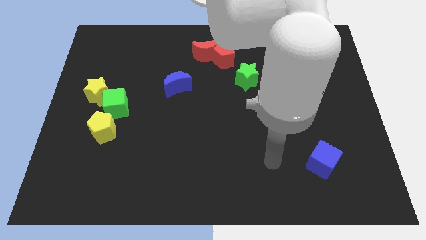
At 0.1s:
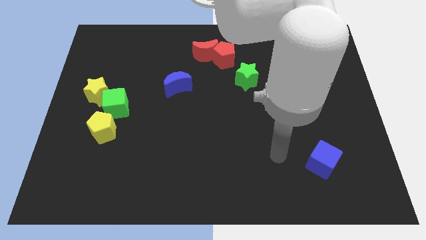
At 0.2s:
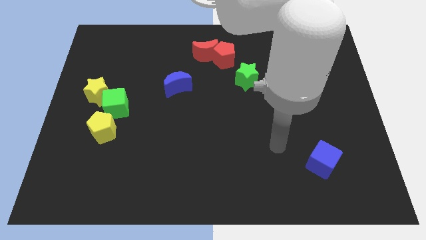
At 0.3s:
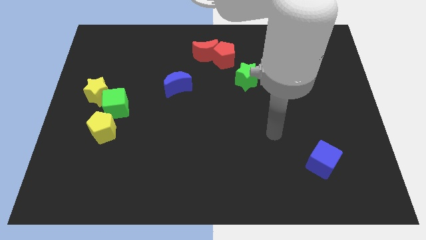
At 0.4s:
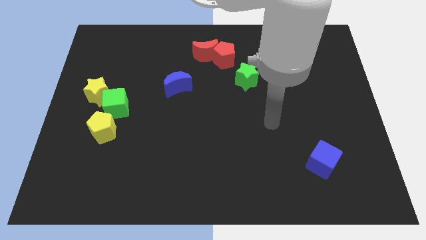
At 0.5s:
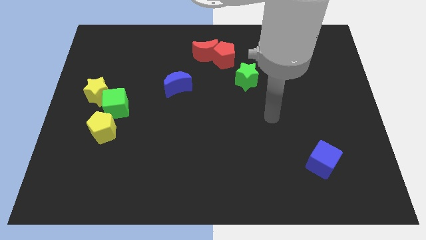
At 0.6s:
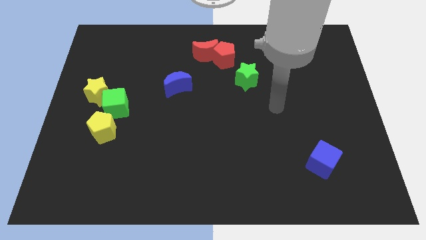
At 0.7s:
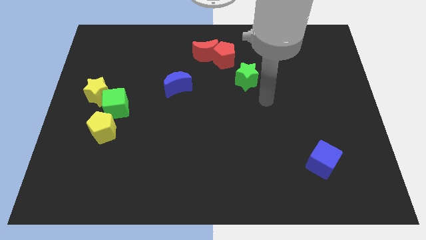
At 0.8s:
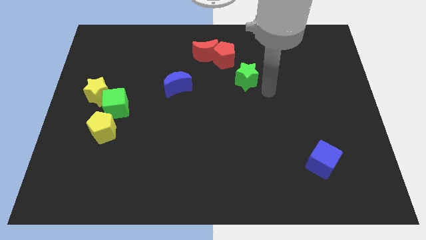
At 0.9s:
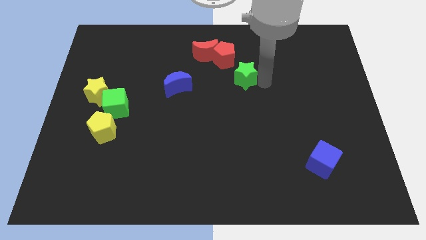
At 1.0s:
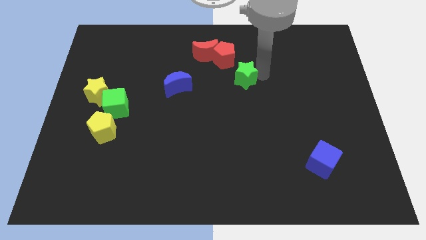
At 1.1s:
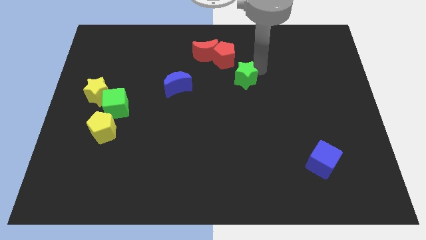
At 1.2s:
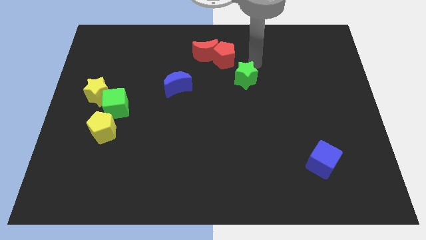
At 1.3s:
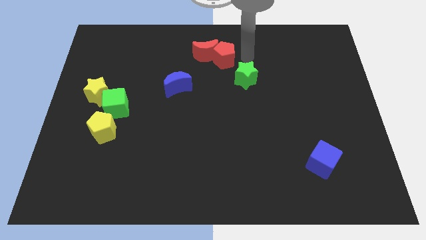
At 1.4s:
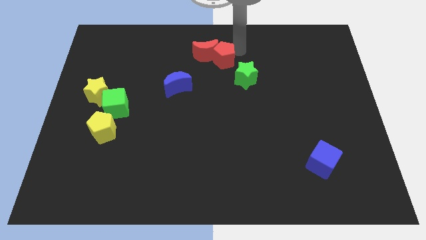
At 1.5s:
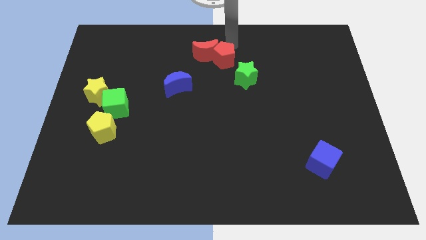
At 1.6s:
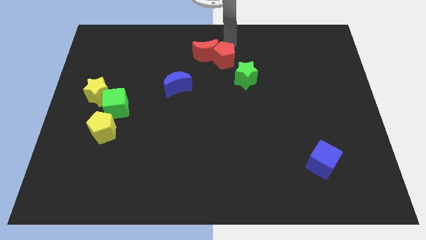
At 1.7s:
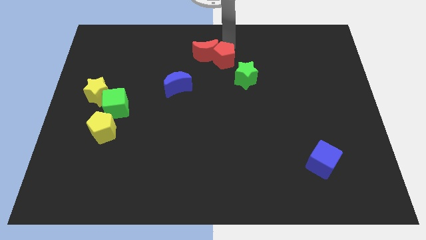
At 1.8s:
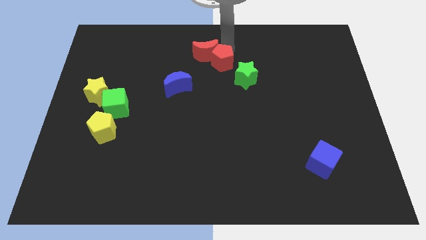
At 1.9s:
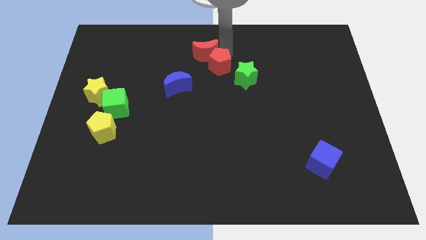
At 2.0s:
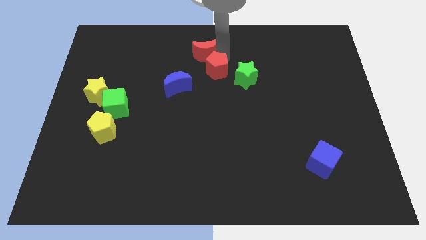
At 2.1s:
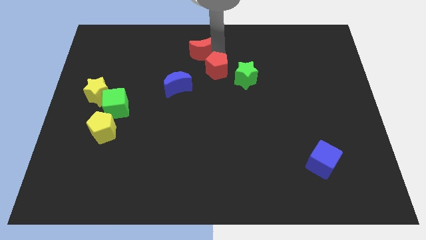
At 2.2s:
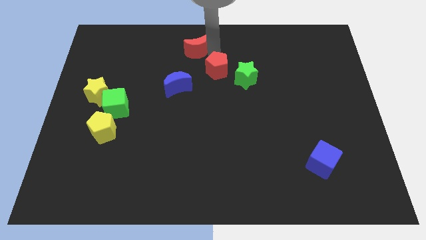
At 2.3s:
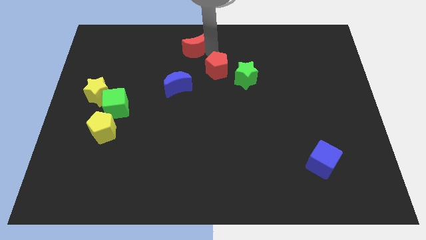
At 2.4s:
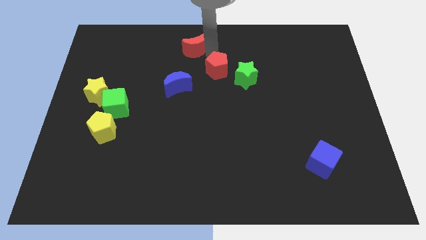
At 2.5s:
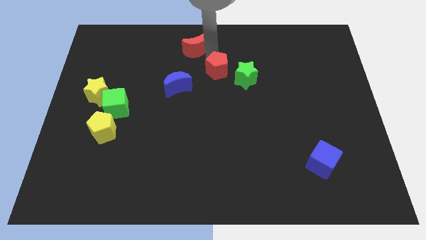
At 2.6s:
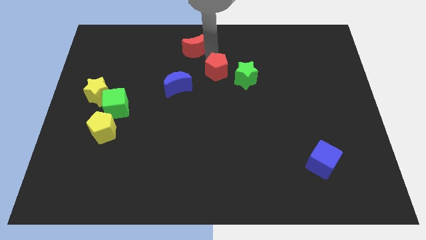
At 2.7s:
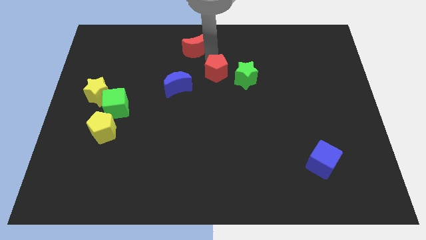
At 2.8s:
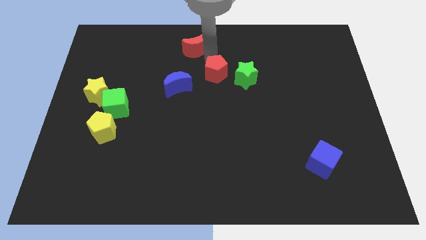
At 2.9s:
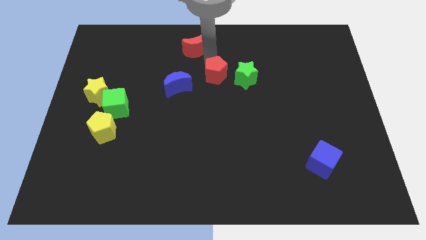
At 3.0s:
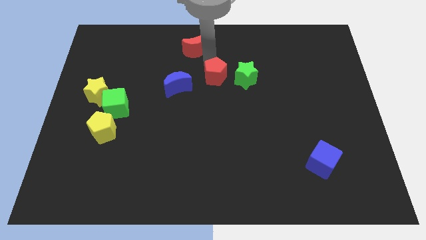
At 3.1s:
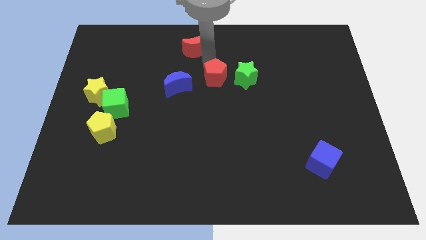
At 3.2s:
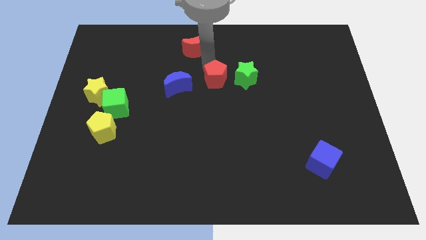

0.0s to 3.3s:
slightly move the red pentagon down

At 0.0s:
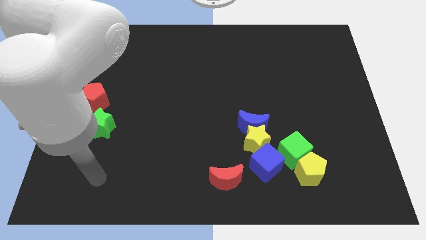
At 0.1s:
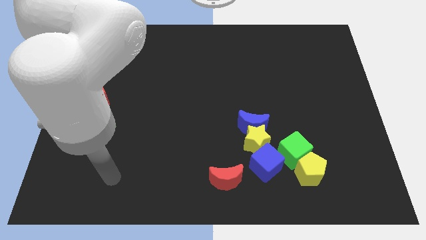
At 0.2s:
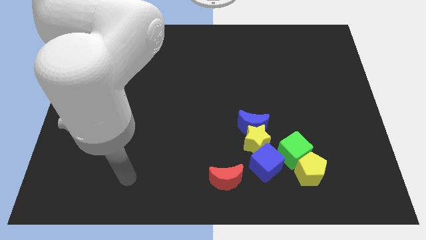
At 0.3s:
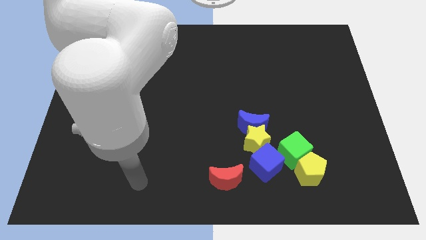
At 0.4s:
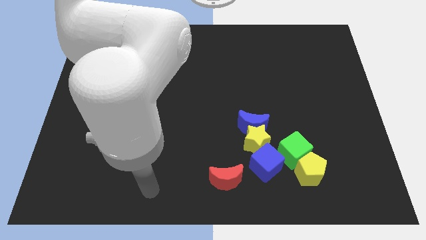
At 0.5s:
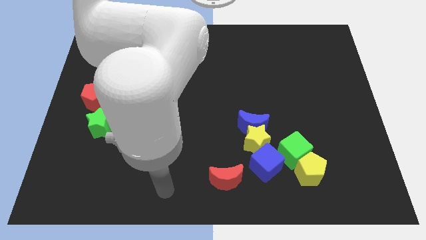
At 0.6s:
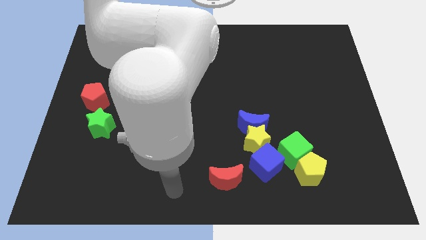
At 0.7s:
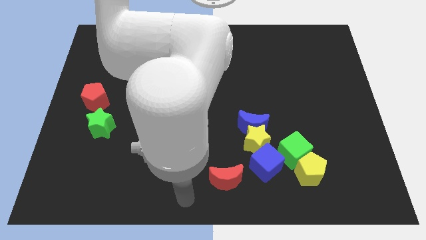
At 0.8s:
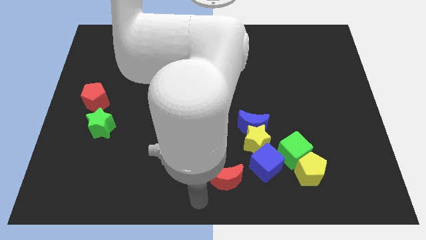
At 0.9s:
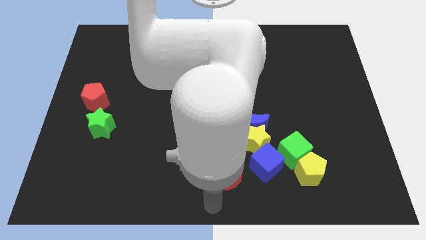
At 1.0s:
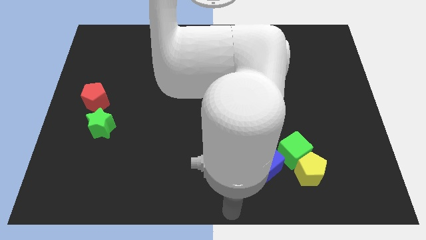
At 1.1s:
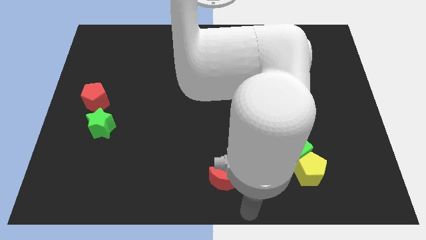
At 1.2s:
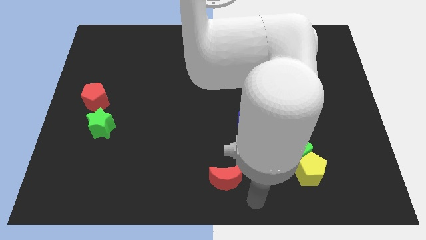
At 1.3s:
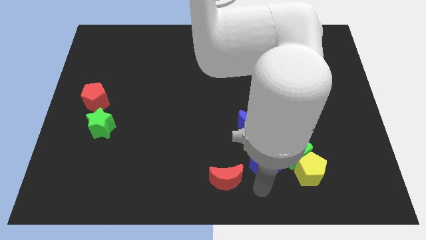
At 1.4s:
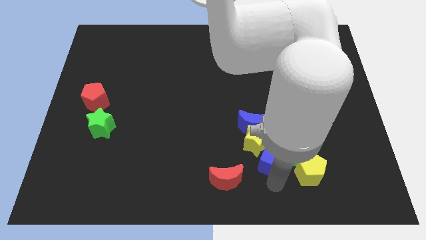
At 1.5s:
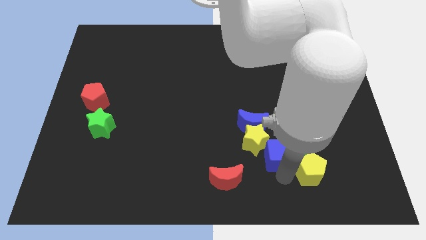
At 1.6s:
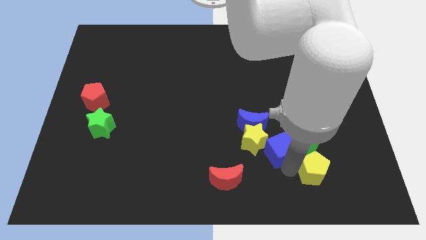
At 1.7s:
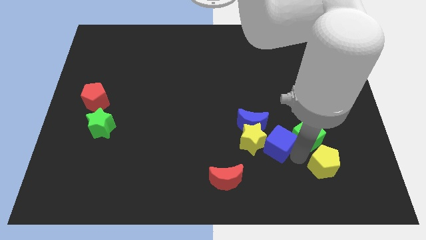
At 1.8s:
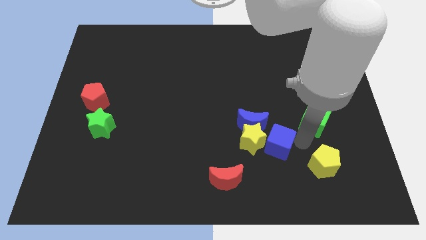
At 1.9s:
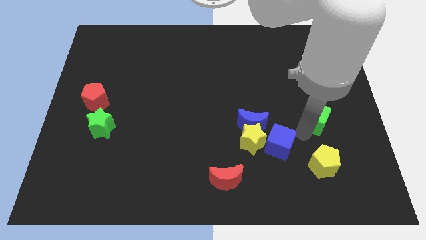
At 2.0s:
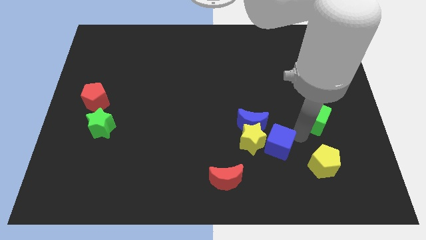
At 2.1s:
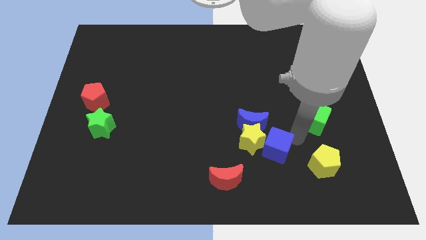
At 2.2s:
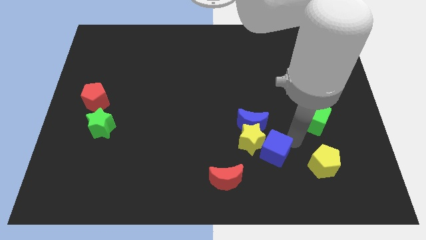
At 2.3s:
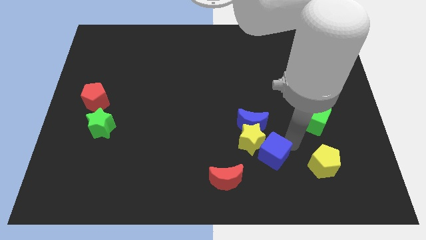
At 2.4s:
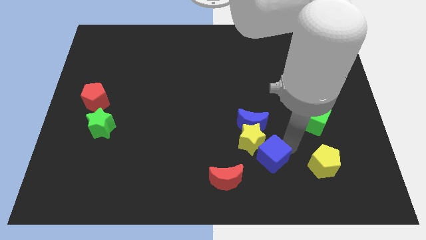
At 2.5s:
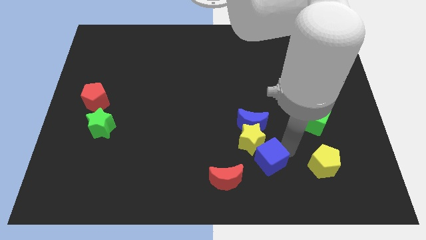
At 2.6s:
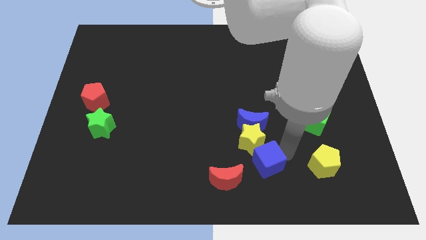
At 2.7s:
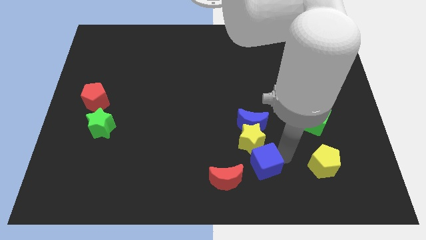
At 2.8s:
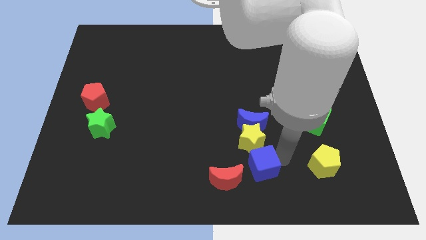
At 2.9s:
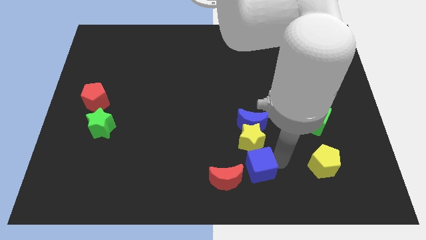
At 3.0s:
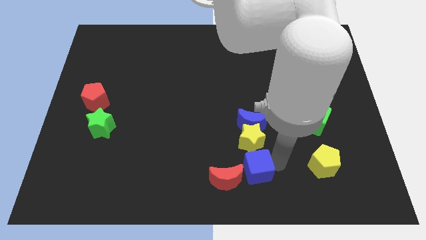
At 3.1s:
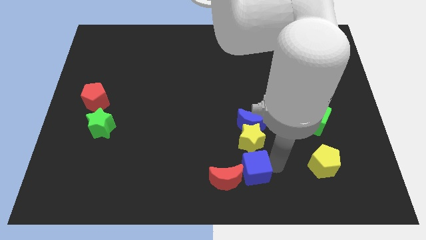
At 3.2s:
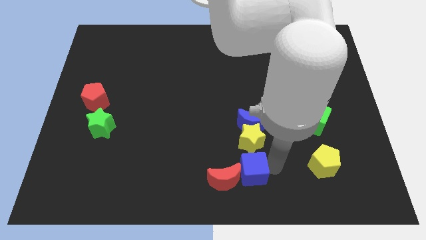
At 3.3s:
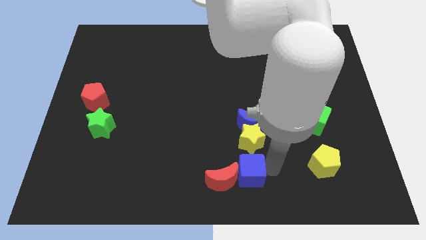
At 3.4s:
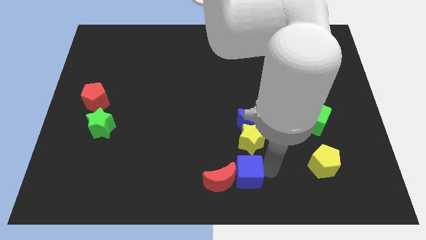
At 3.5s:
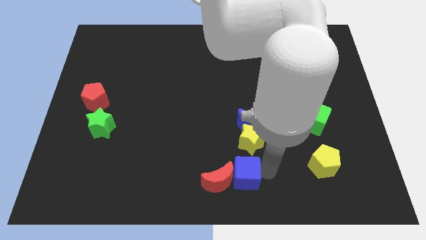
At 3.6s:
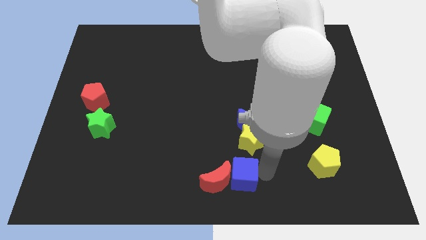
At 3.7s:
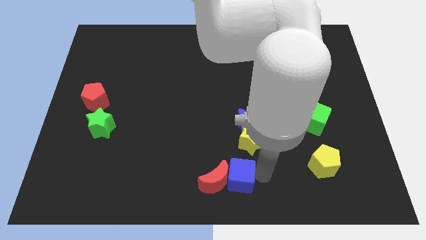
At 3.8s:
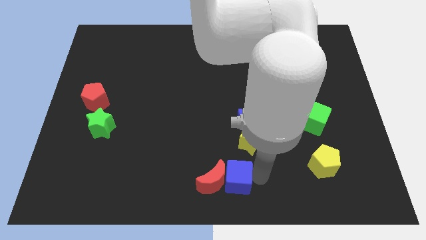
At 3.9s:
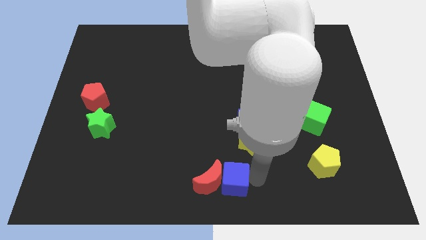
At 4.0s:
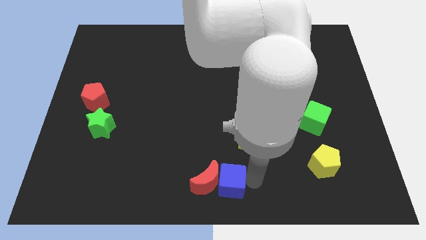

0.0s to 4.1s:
move the blue cube to the left a little bit

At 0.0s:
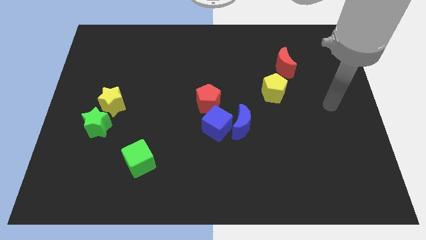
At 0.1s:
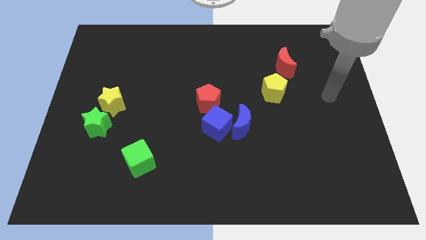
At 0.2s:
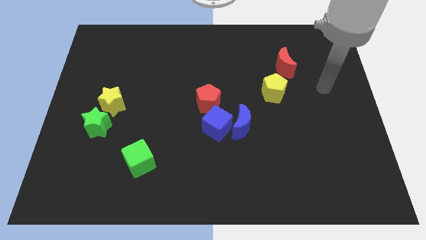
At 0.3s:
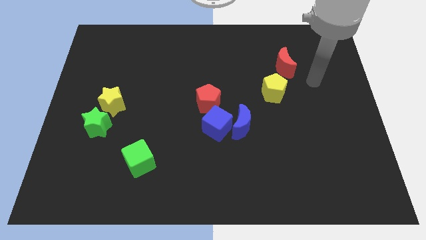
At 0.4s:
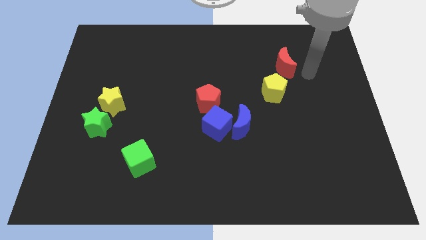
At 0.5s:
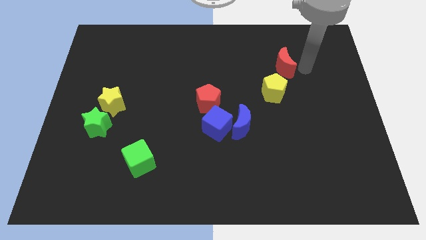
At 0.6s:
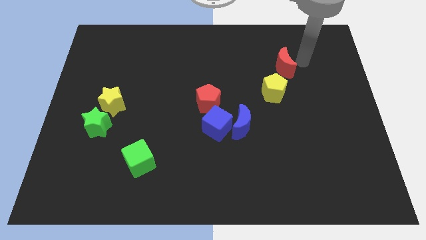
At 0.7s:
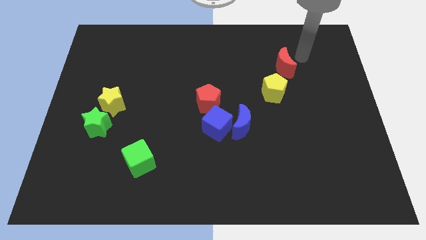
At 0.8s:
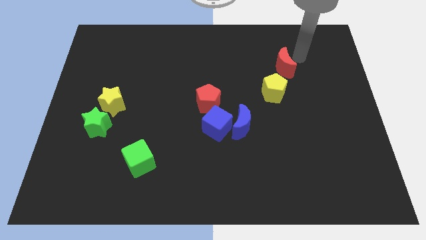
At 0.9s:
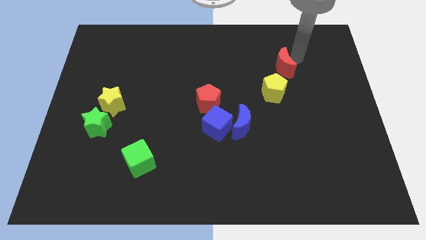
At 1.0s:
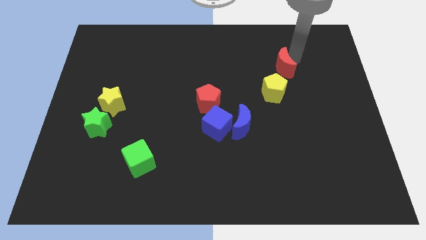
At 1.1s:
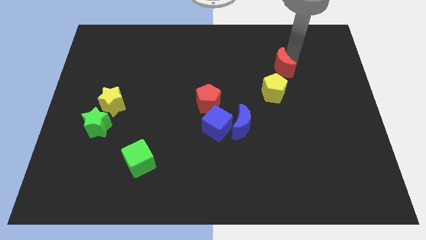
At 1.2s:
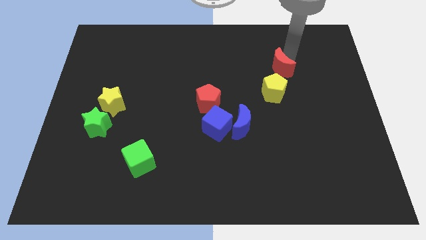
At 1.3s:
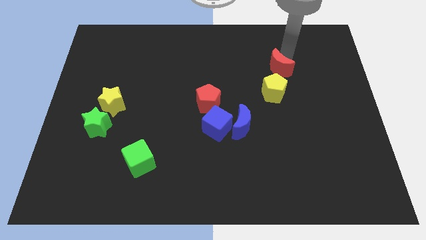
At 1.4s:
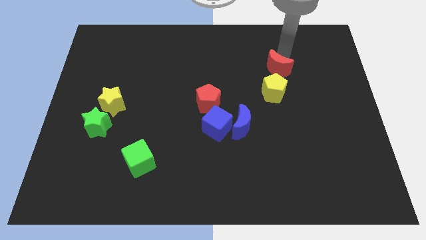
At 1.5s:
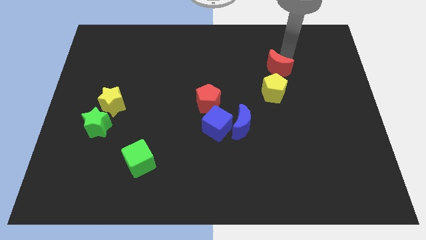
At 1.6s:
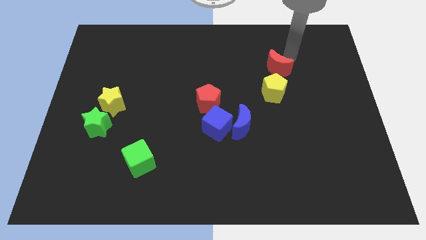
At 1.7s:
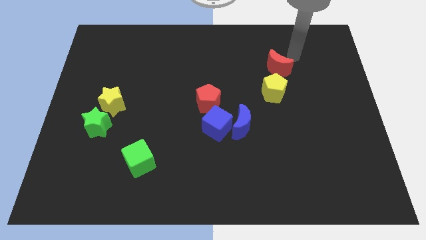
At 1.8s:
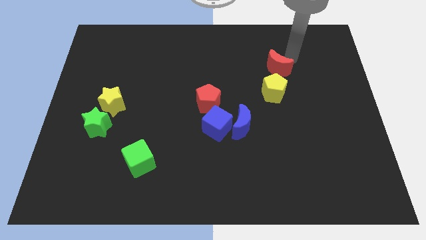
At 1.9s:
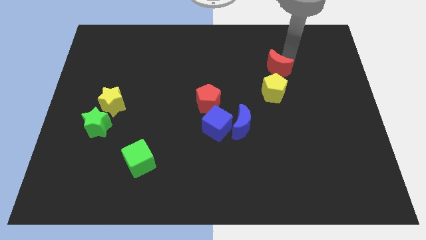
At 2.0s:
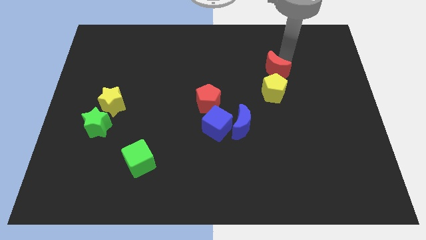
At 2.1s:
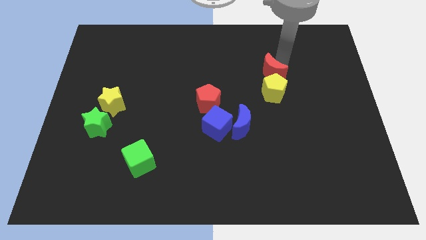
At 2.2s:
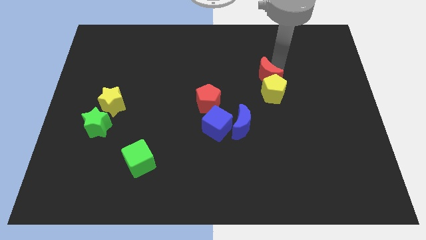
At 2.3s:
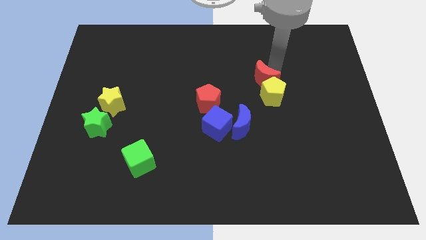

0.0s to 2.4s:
move the red moon a bit down and left
